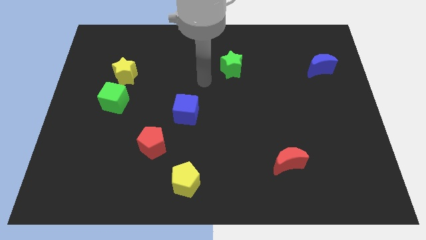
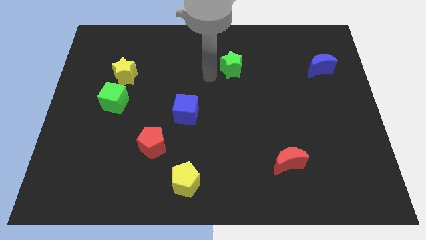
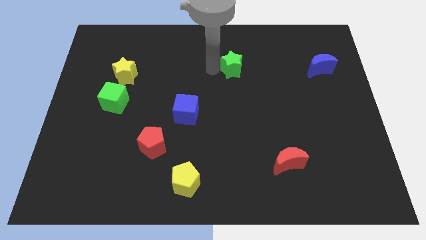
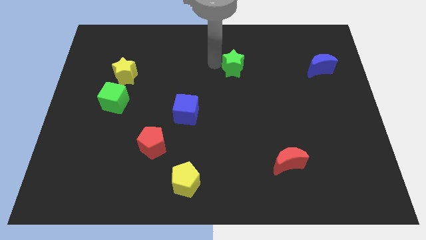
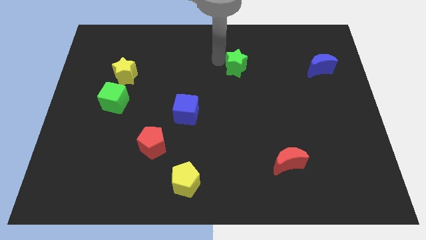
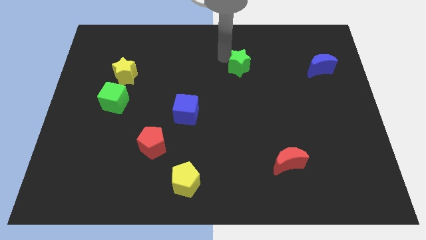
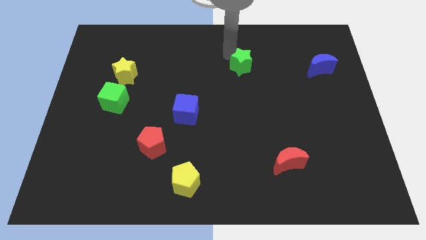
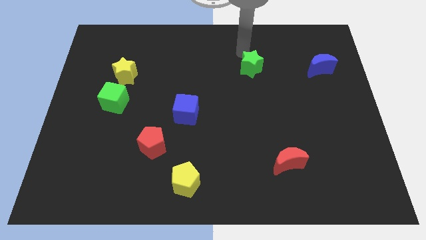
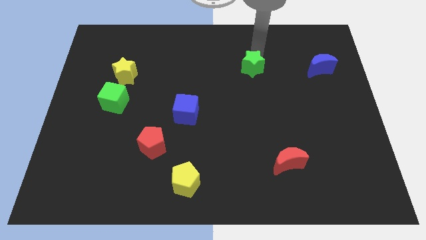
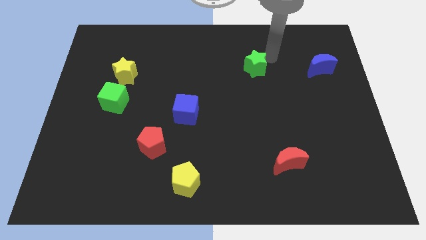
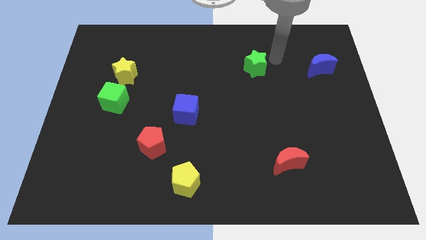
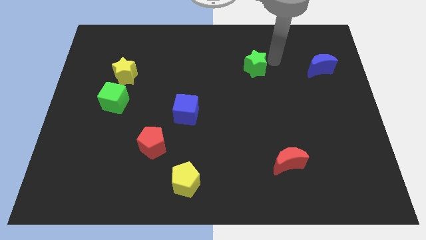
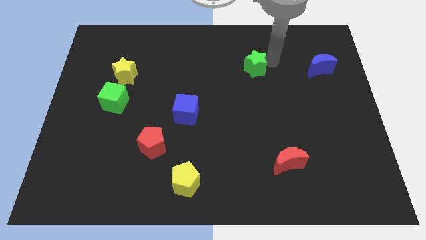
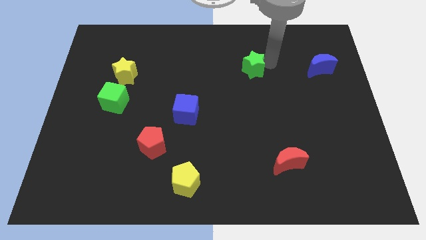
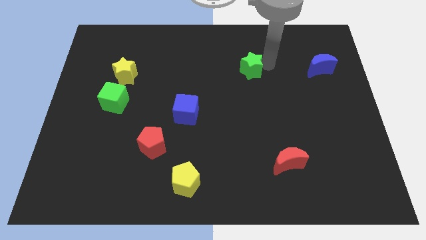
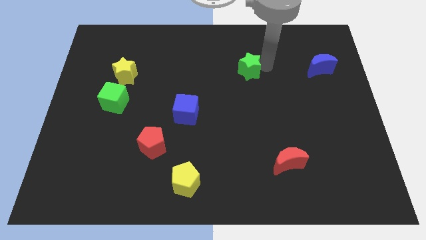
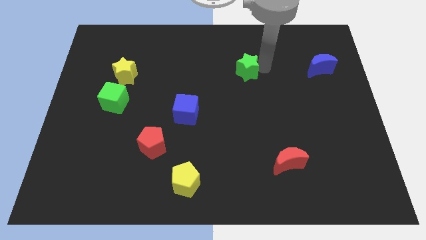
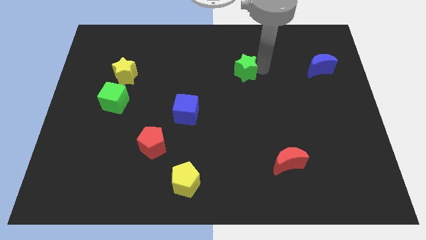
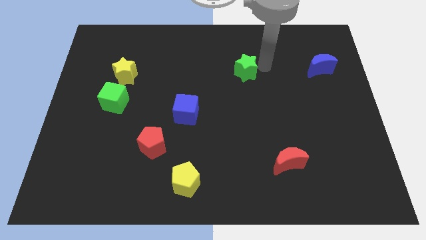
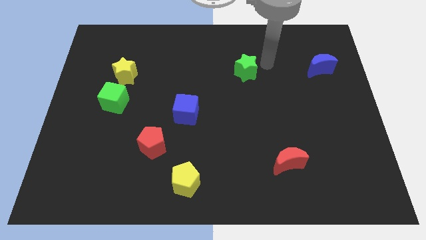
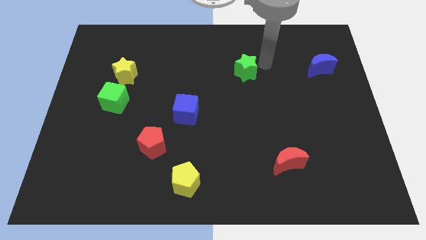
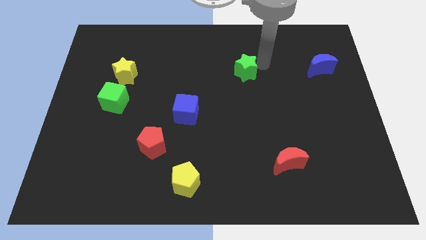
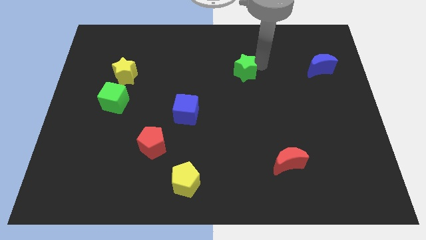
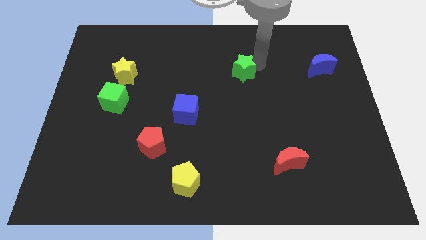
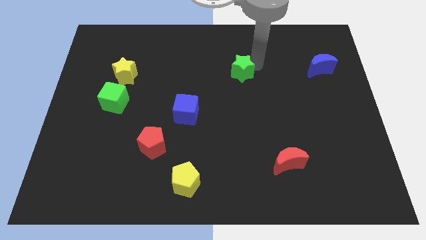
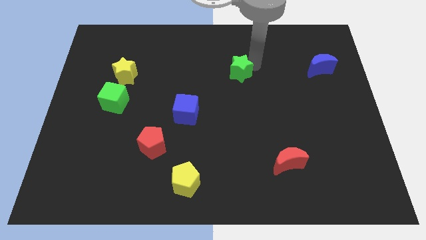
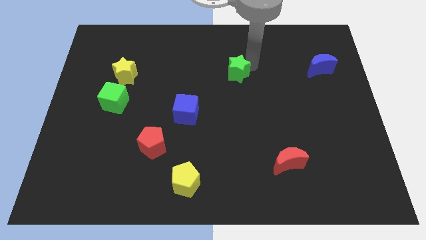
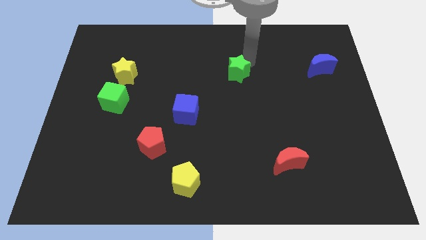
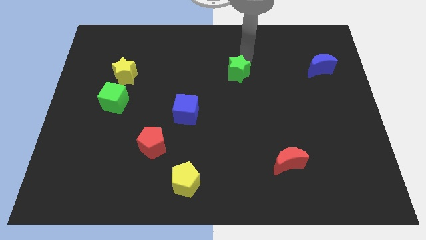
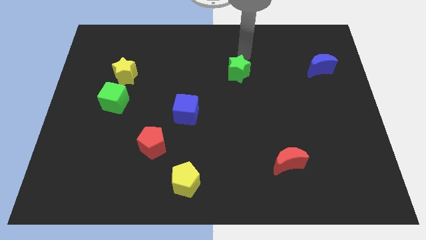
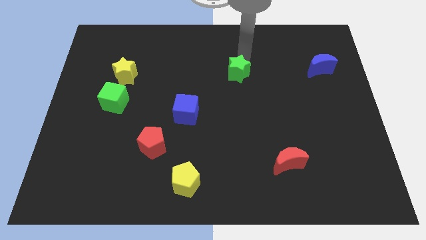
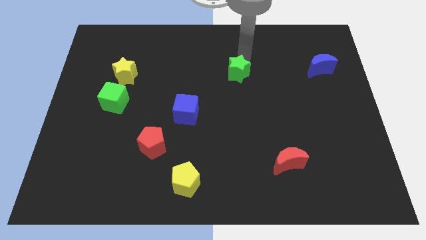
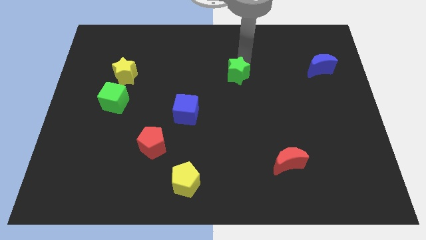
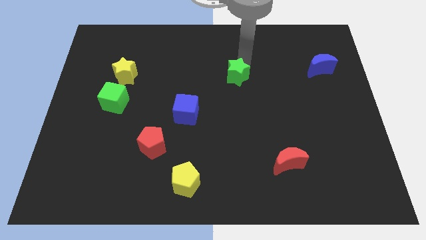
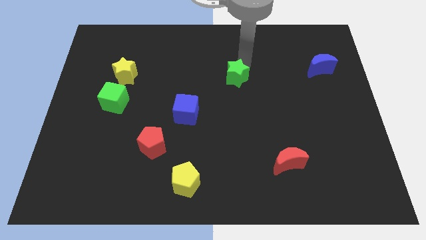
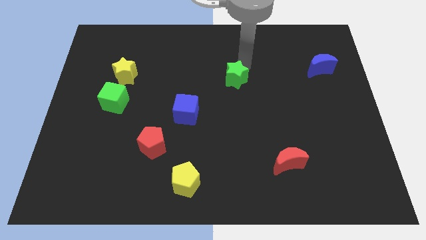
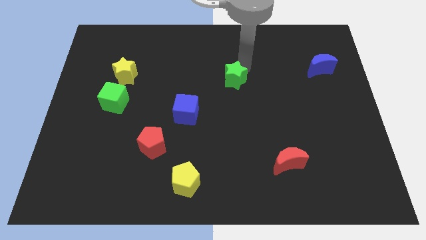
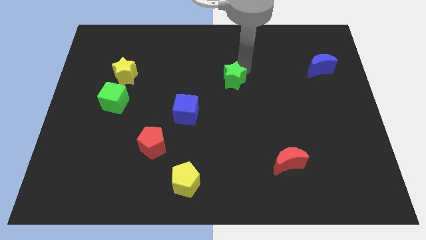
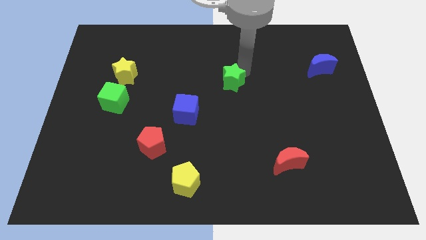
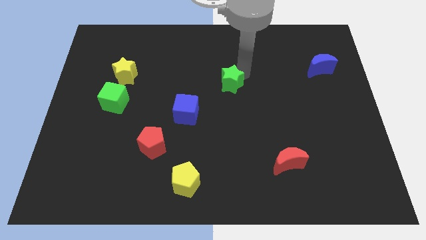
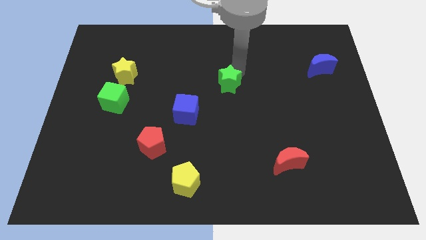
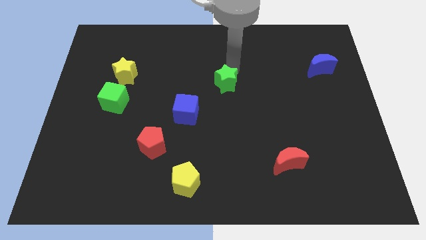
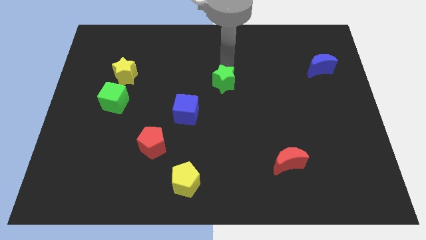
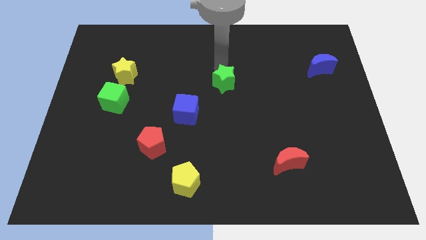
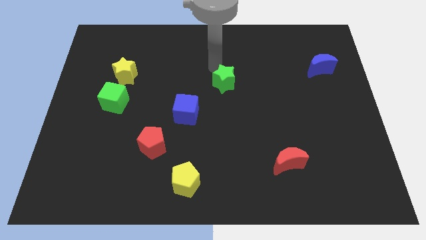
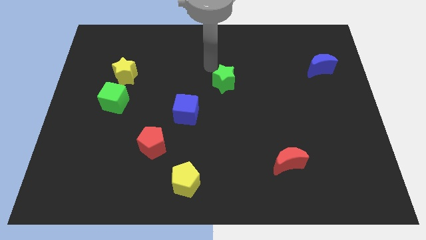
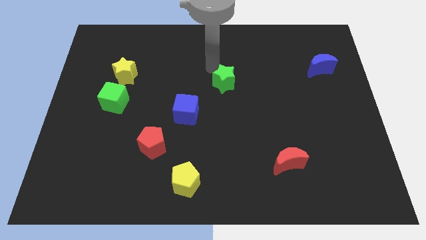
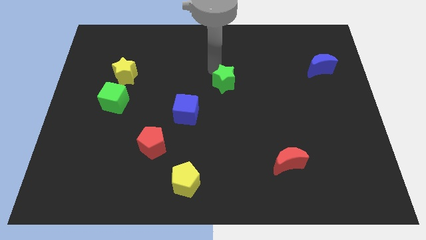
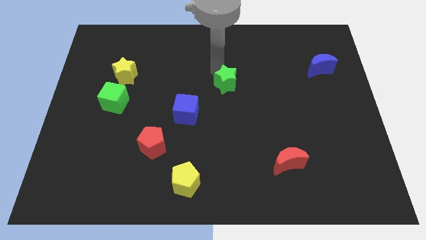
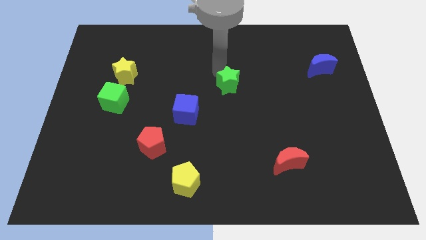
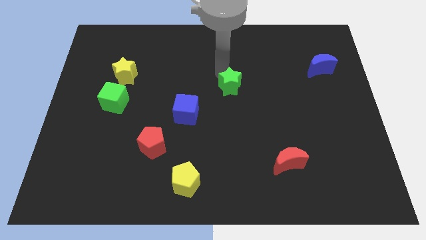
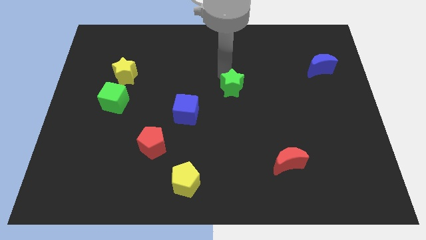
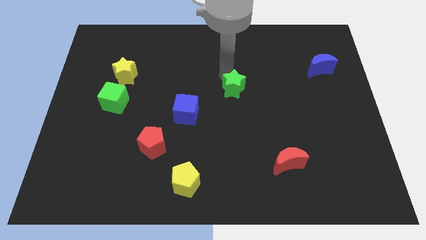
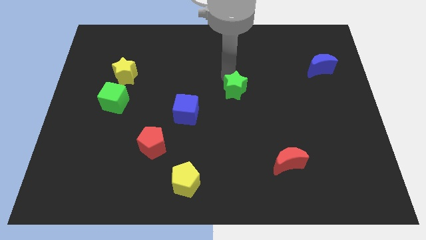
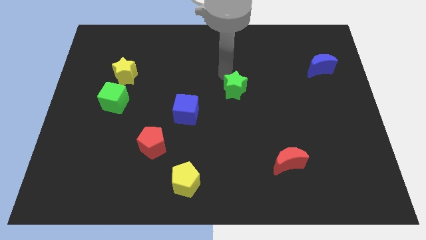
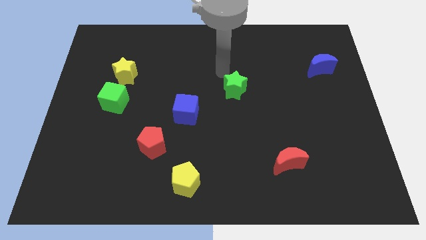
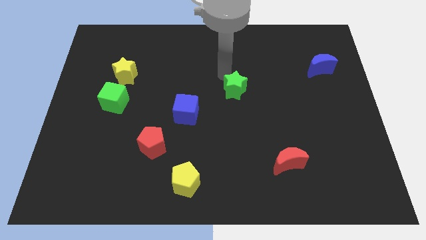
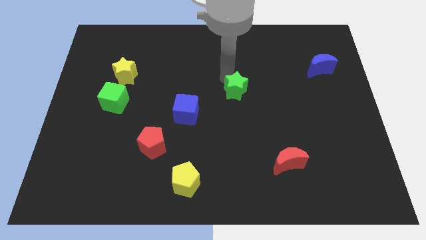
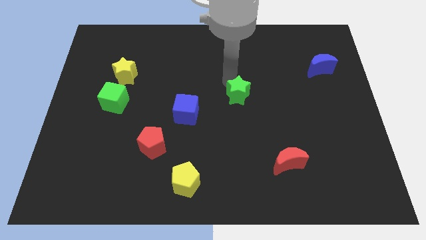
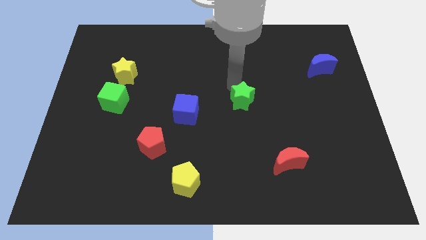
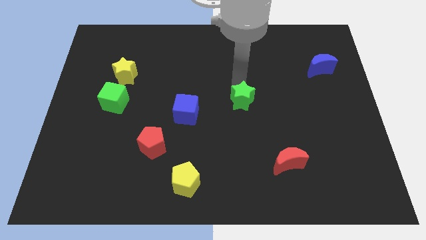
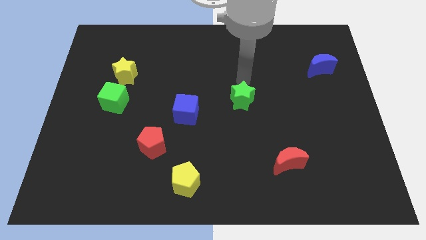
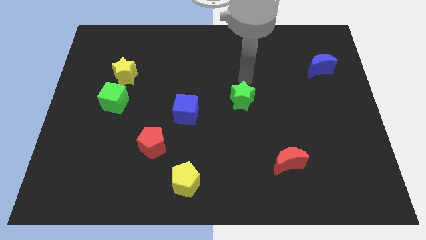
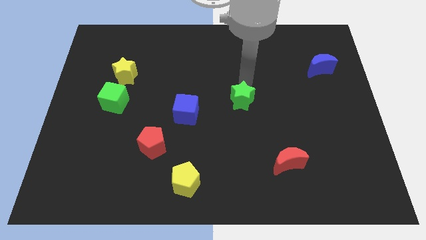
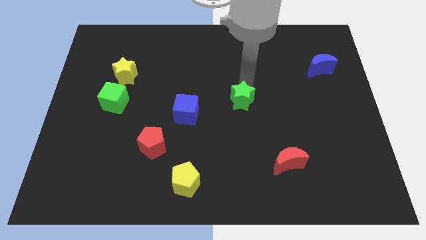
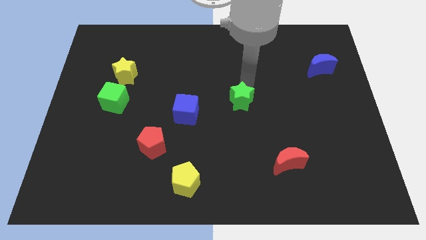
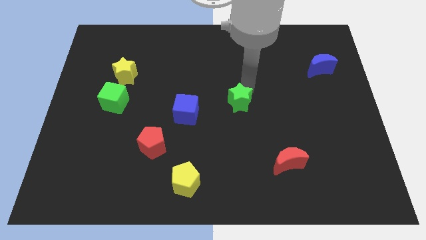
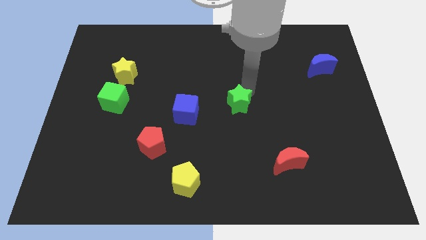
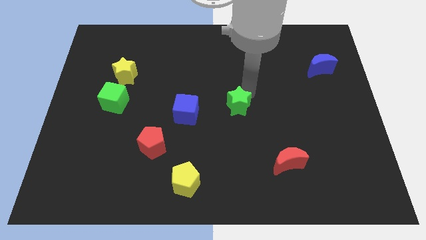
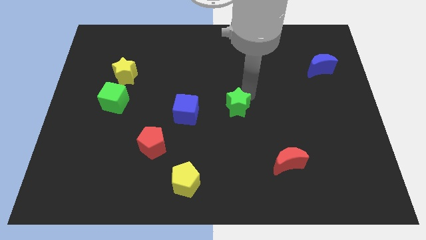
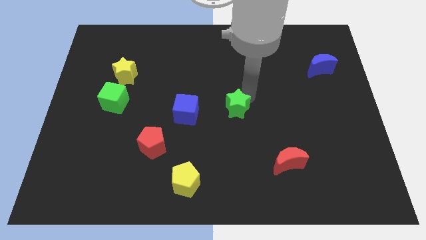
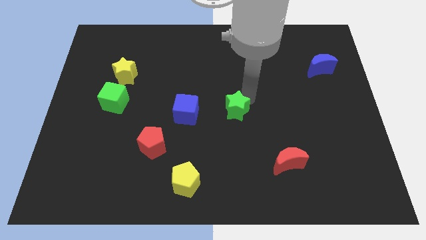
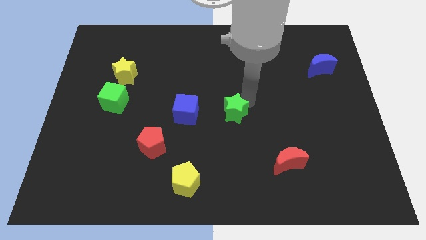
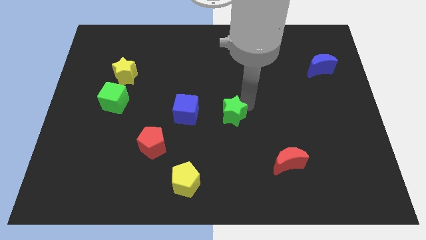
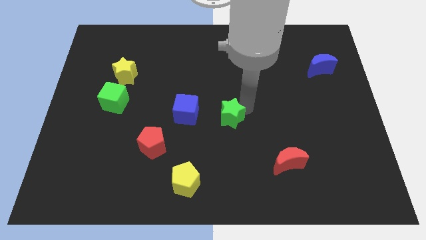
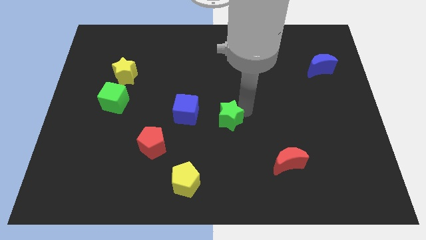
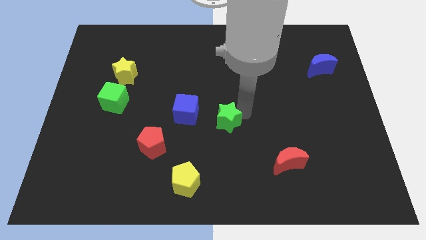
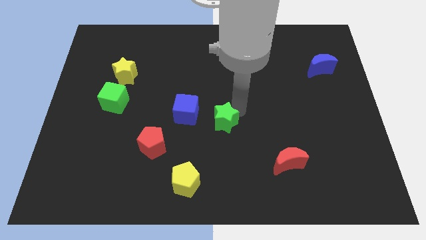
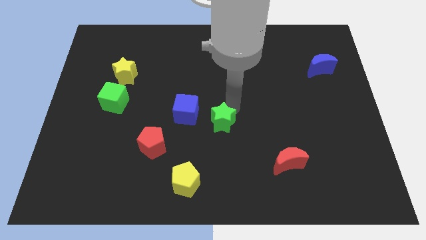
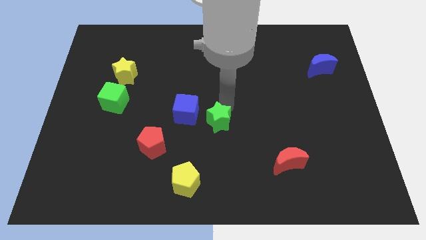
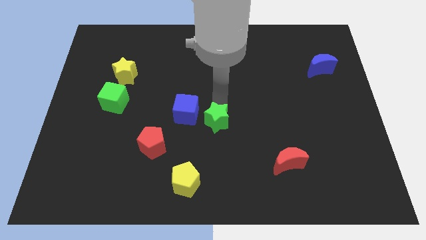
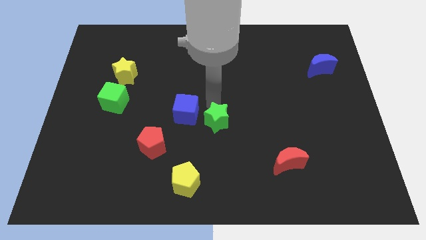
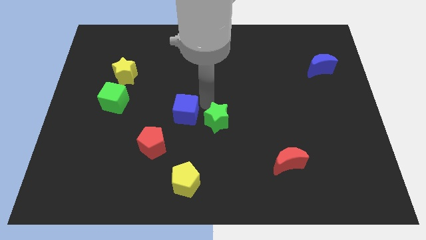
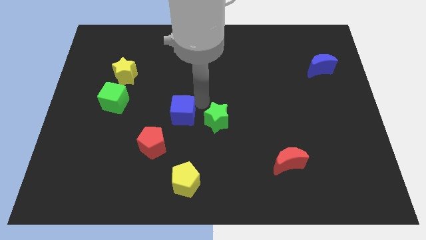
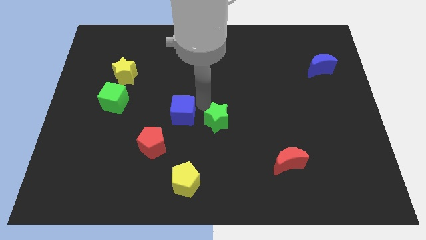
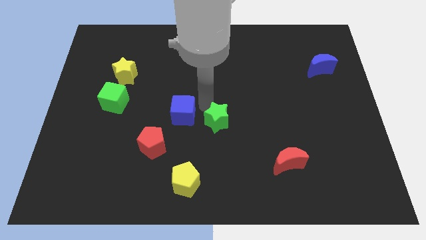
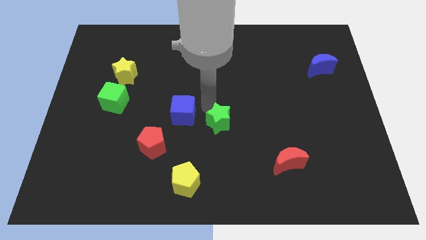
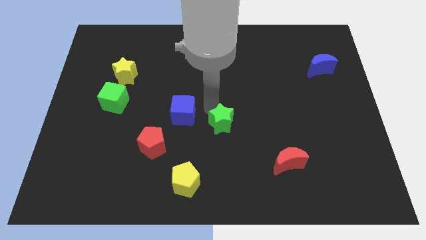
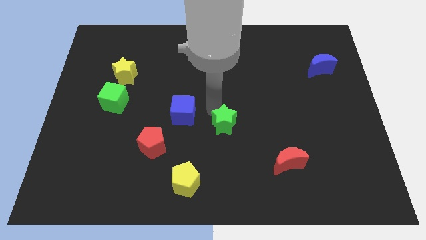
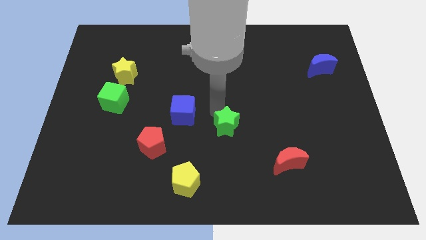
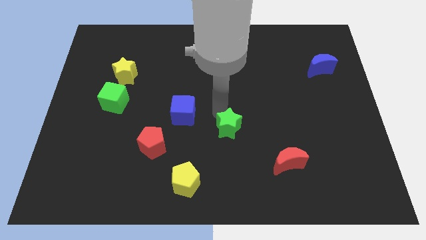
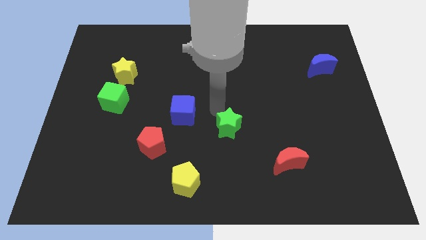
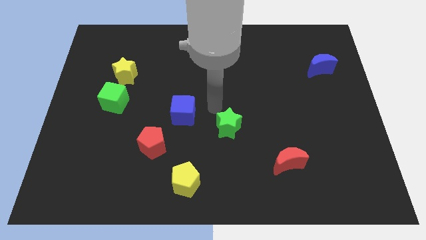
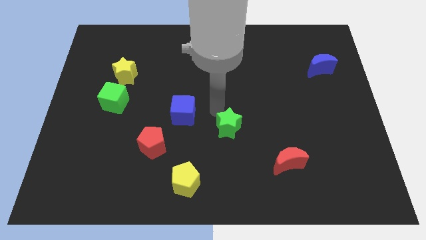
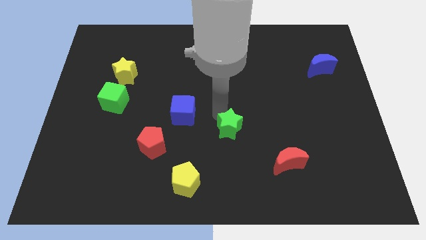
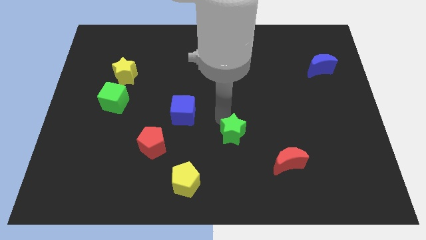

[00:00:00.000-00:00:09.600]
slide the green star downwards
